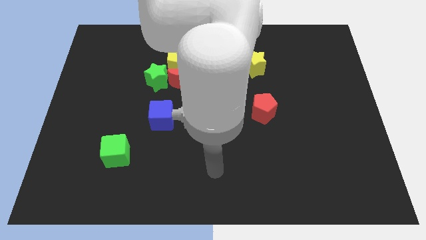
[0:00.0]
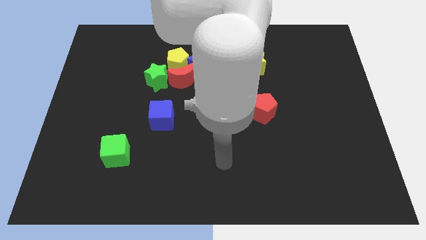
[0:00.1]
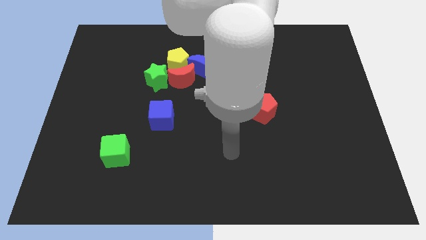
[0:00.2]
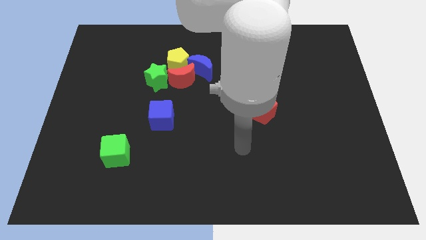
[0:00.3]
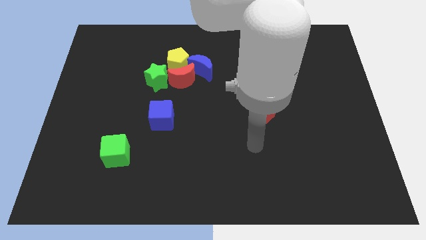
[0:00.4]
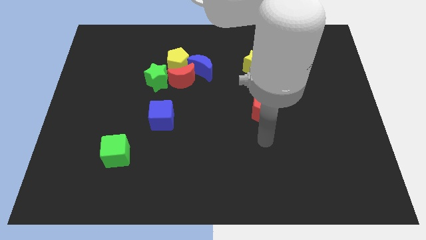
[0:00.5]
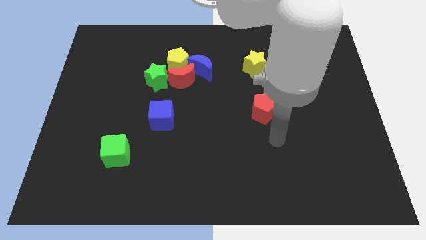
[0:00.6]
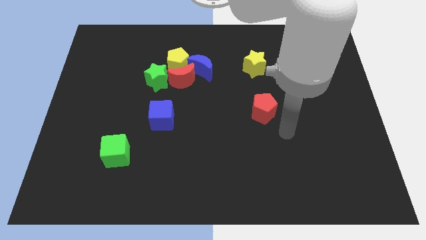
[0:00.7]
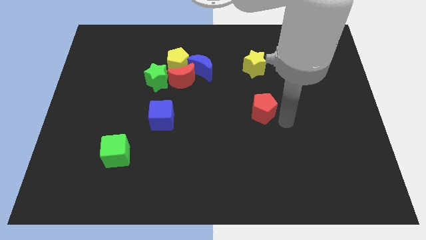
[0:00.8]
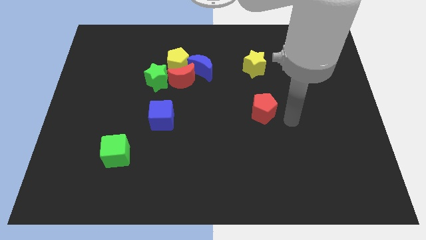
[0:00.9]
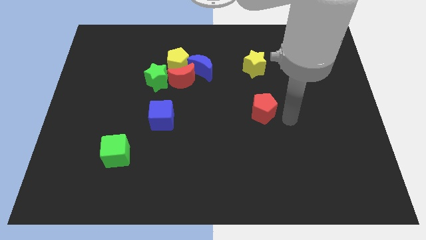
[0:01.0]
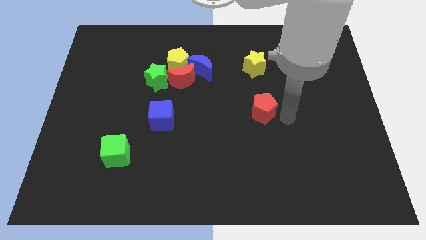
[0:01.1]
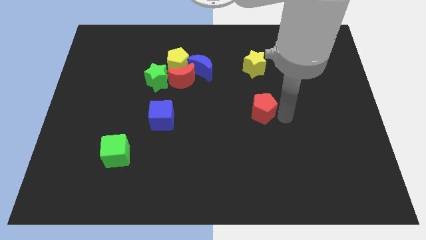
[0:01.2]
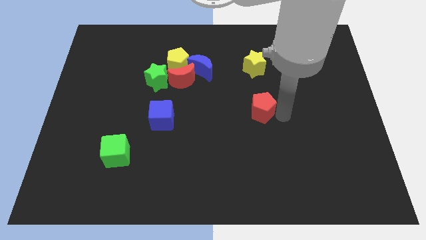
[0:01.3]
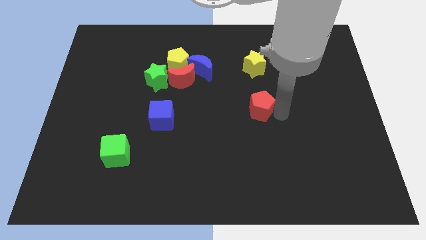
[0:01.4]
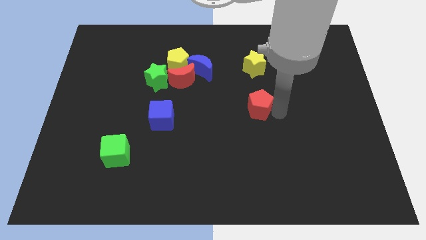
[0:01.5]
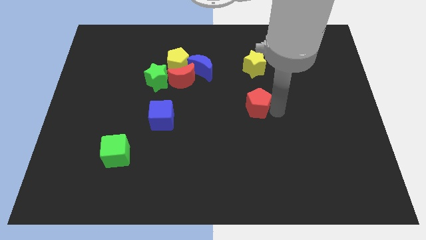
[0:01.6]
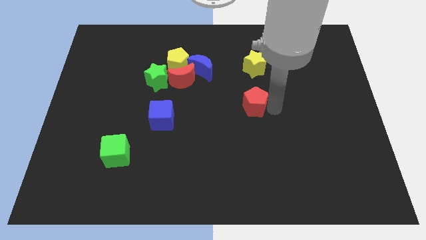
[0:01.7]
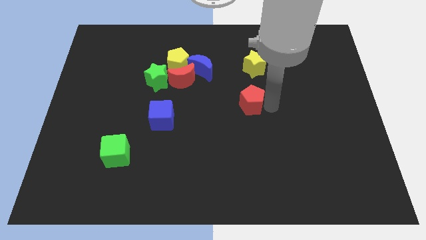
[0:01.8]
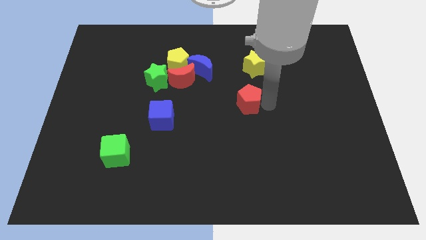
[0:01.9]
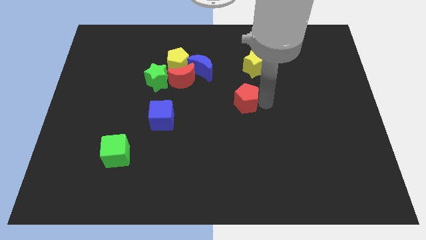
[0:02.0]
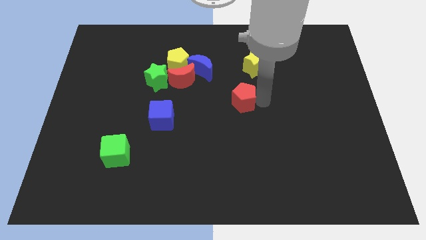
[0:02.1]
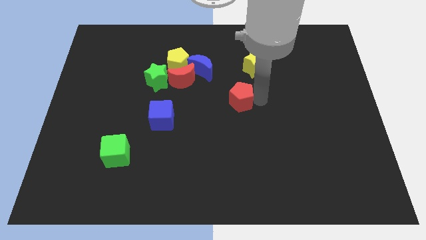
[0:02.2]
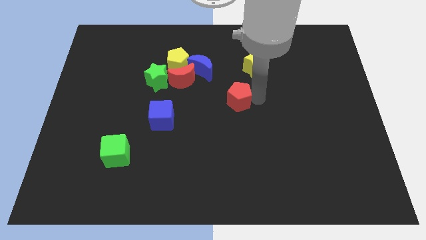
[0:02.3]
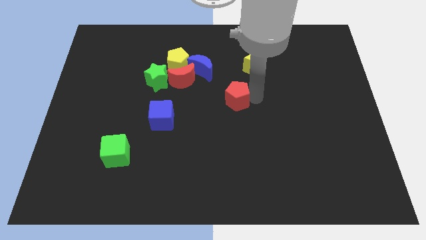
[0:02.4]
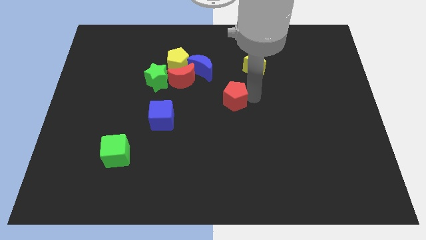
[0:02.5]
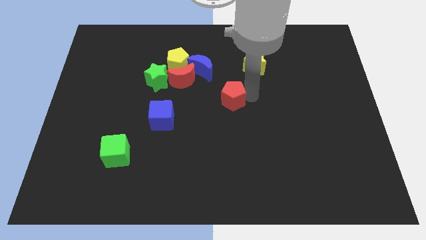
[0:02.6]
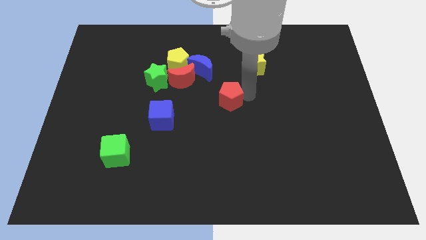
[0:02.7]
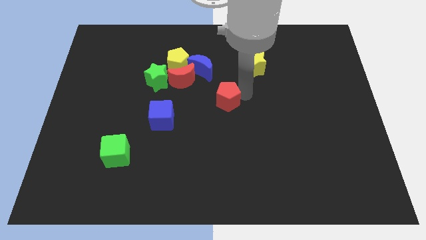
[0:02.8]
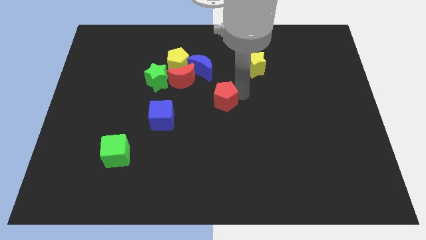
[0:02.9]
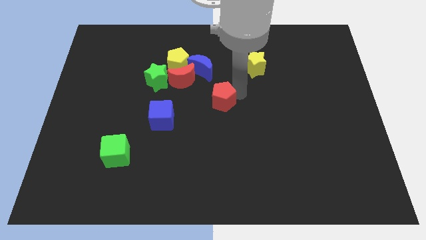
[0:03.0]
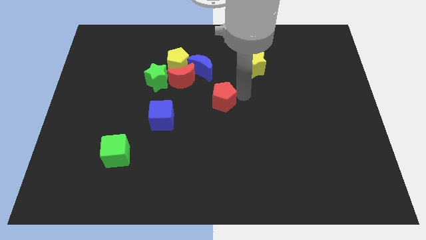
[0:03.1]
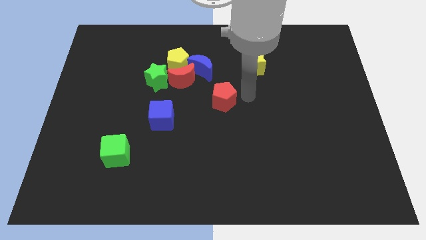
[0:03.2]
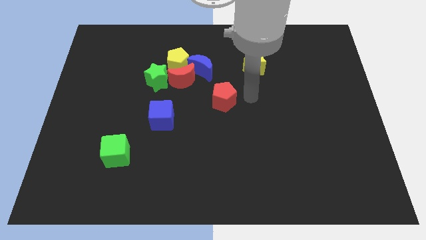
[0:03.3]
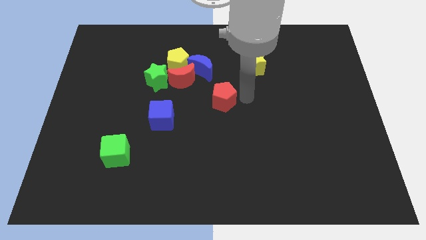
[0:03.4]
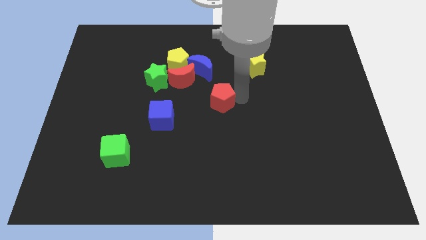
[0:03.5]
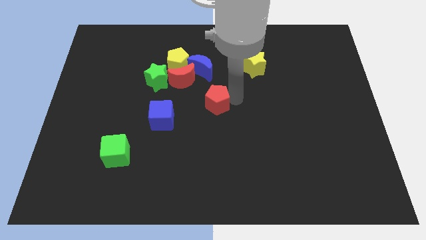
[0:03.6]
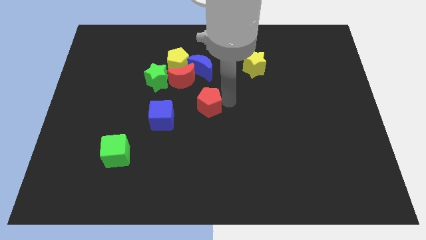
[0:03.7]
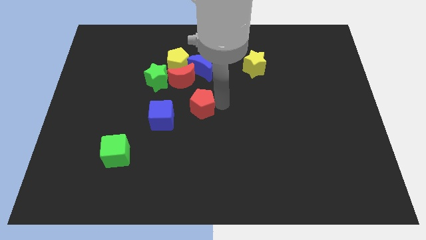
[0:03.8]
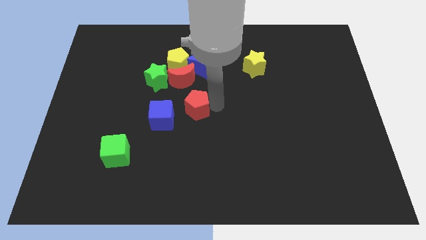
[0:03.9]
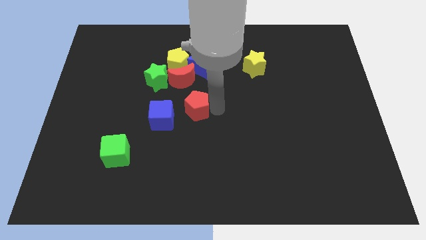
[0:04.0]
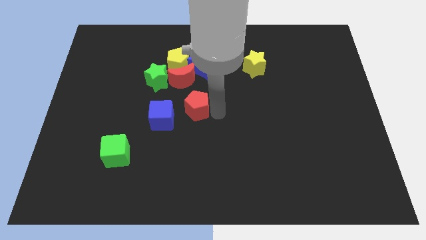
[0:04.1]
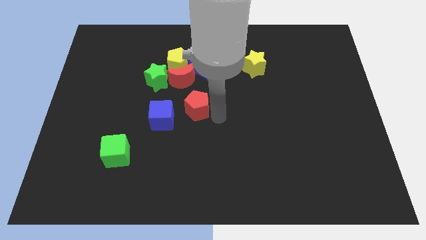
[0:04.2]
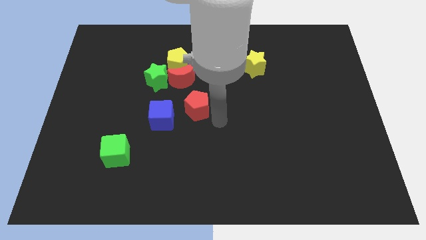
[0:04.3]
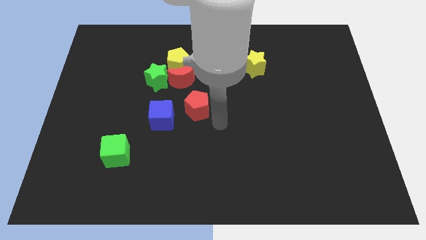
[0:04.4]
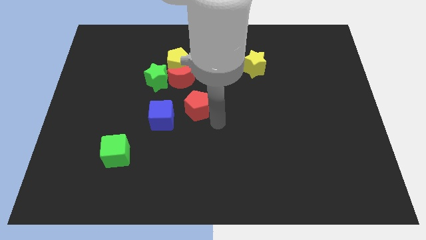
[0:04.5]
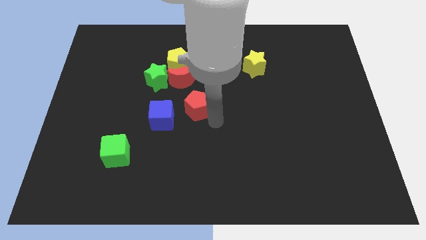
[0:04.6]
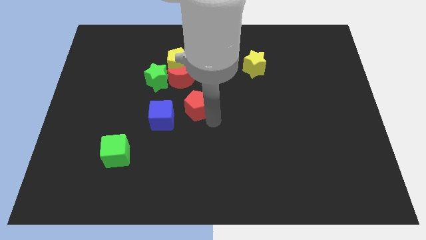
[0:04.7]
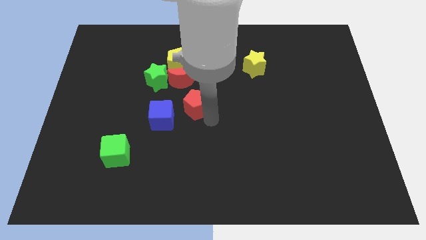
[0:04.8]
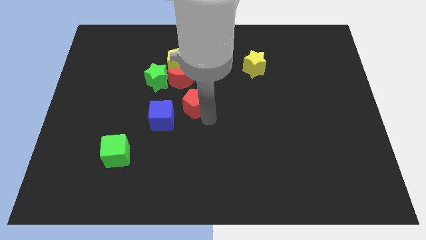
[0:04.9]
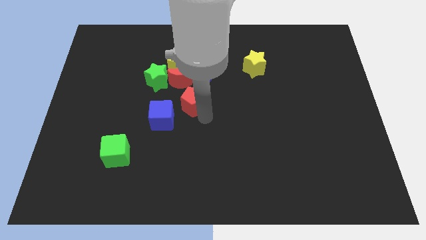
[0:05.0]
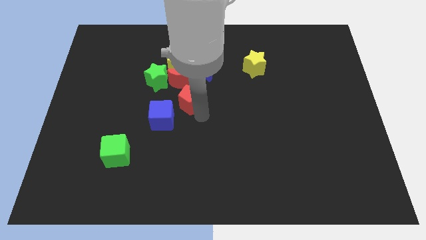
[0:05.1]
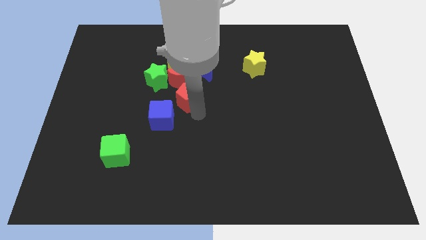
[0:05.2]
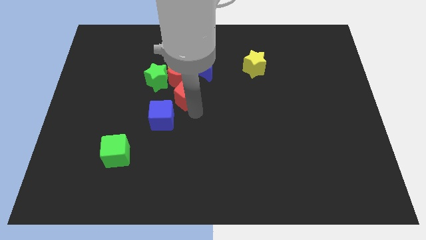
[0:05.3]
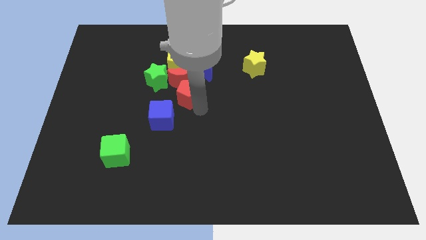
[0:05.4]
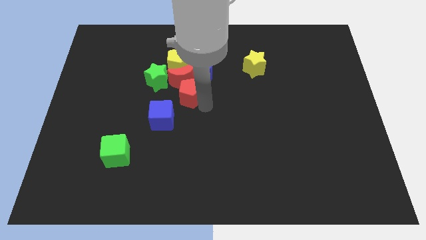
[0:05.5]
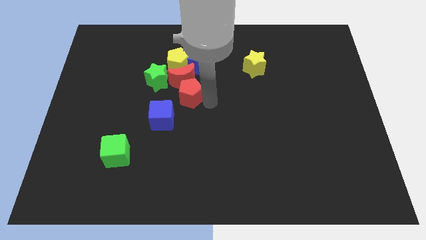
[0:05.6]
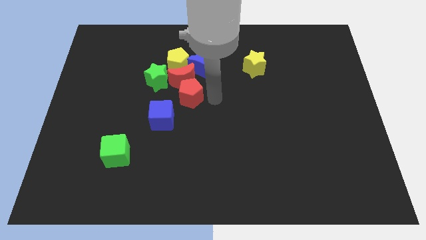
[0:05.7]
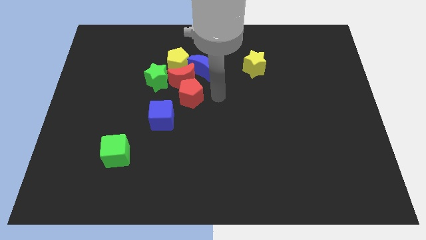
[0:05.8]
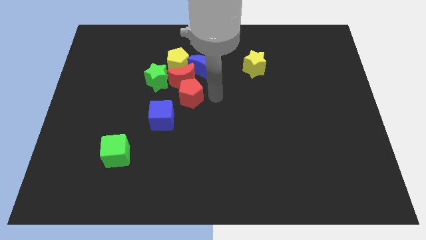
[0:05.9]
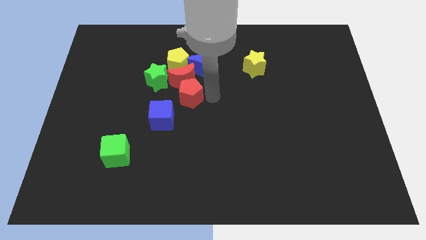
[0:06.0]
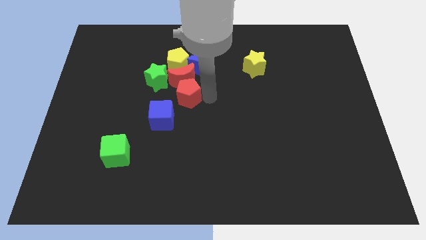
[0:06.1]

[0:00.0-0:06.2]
put the red pentagon diagonally down and to the left of the red moon

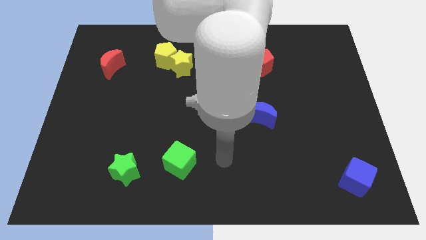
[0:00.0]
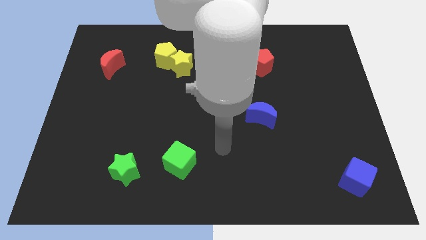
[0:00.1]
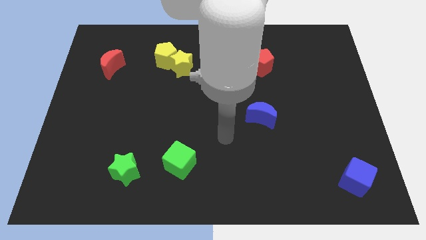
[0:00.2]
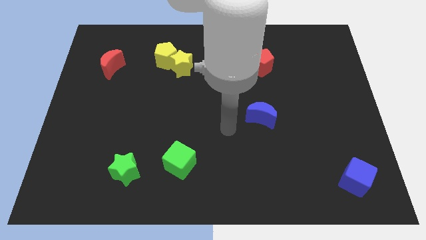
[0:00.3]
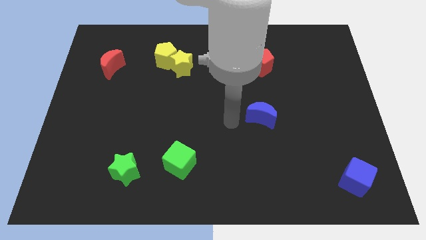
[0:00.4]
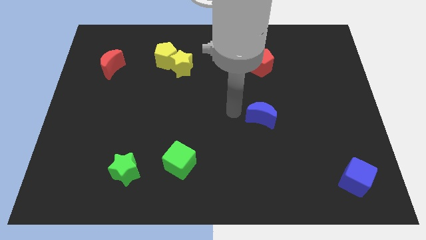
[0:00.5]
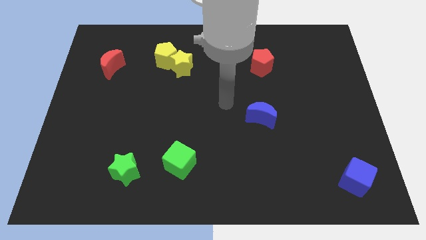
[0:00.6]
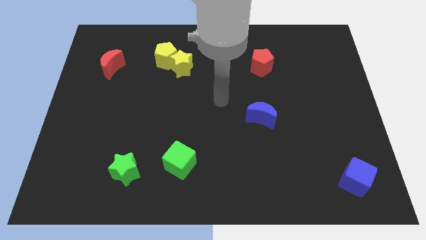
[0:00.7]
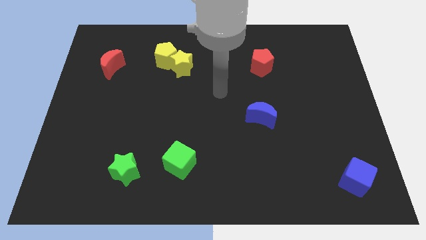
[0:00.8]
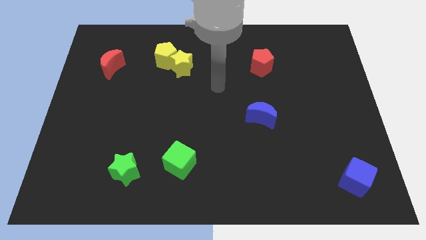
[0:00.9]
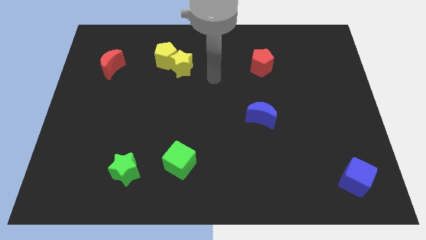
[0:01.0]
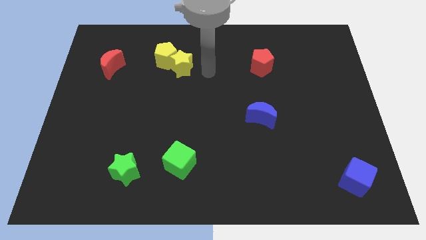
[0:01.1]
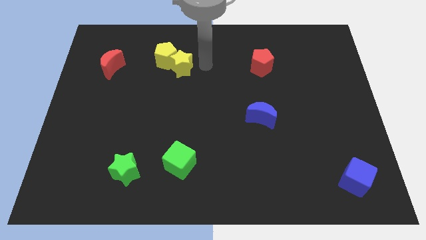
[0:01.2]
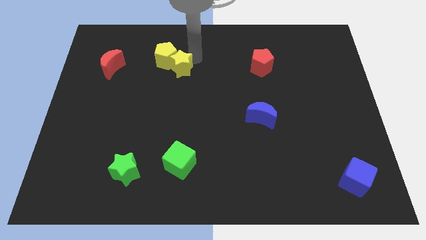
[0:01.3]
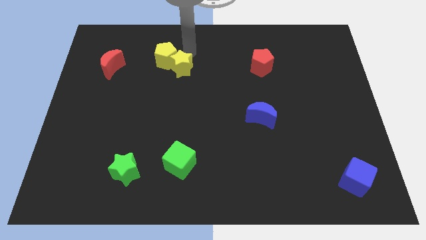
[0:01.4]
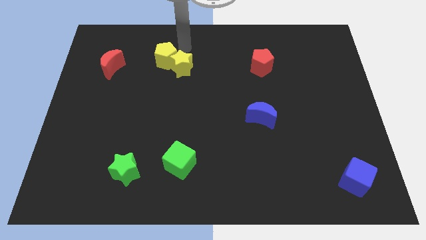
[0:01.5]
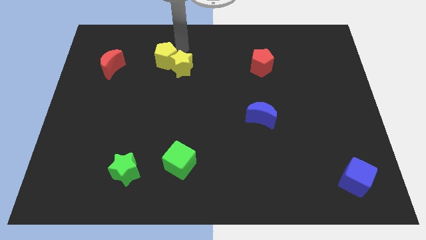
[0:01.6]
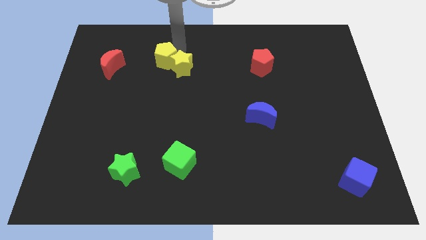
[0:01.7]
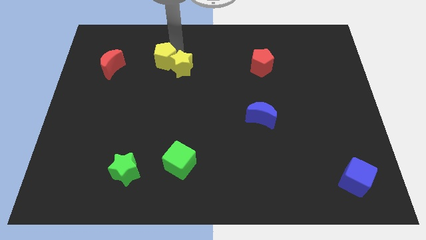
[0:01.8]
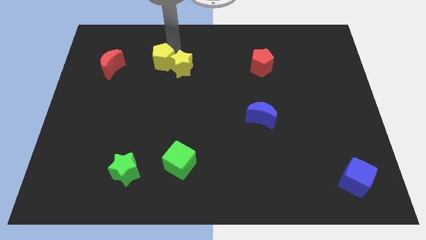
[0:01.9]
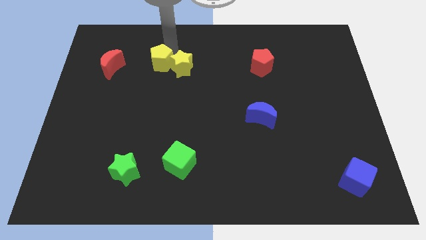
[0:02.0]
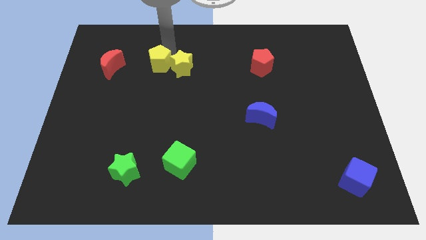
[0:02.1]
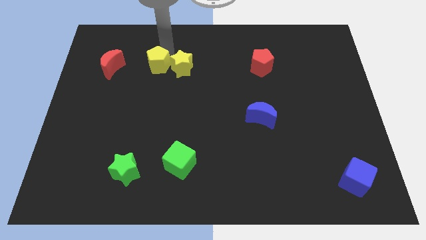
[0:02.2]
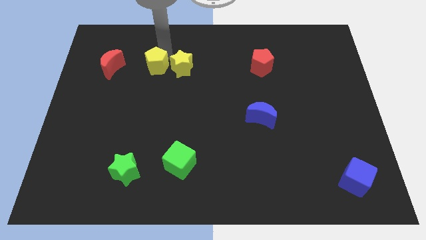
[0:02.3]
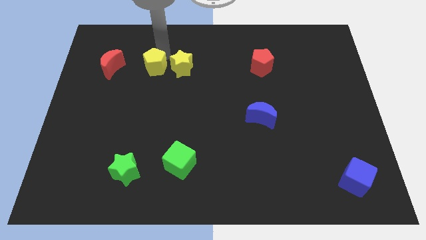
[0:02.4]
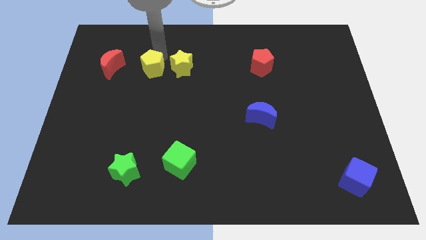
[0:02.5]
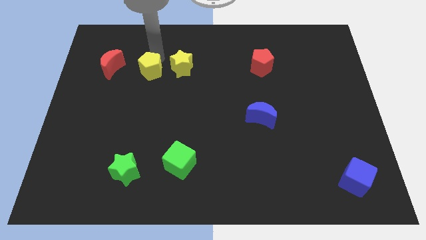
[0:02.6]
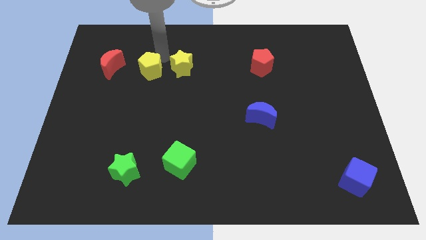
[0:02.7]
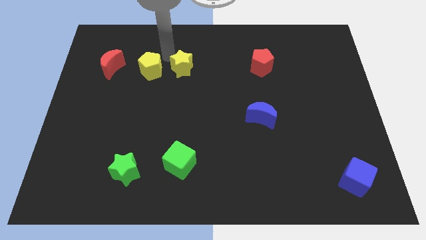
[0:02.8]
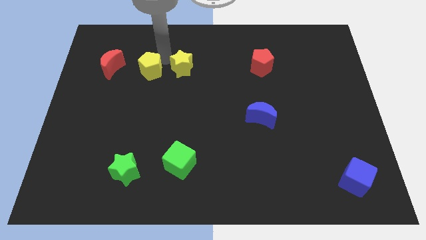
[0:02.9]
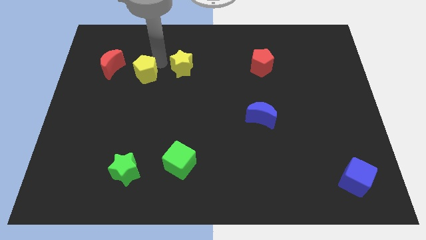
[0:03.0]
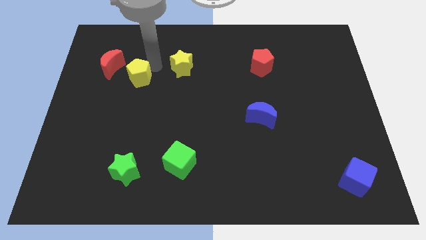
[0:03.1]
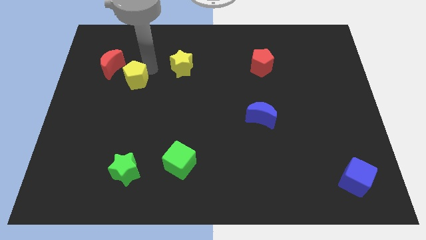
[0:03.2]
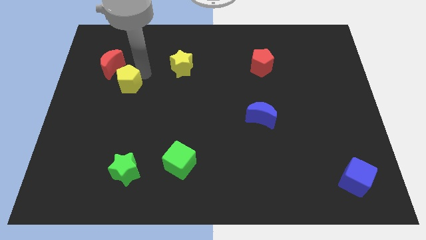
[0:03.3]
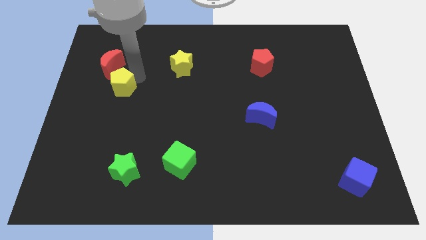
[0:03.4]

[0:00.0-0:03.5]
slide the yellow pentagon to the bottom side of the red moon
